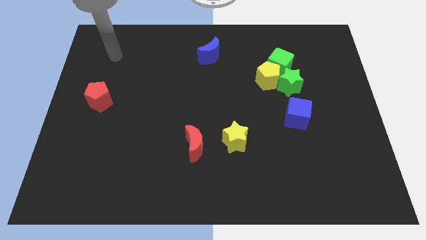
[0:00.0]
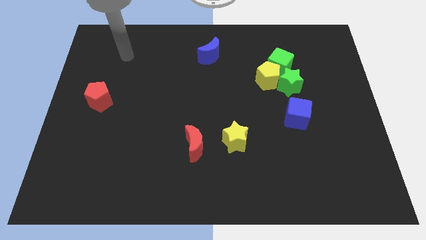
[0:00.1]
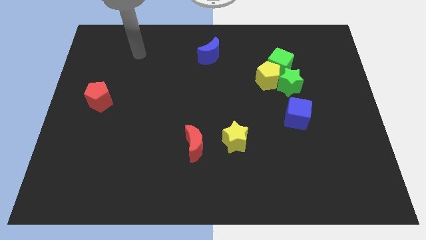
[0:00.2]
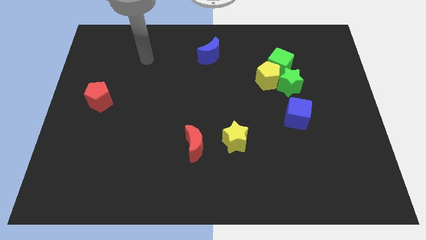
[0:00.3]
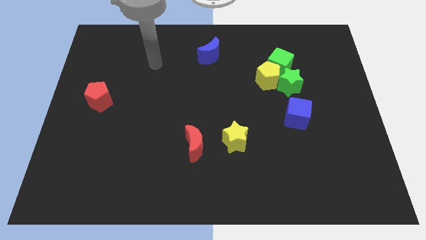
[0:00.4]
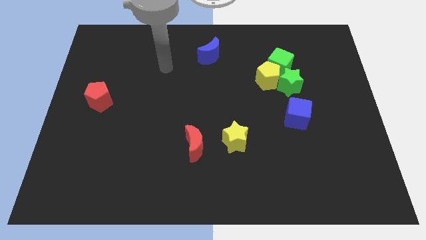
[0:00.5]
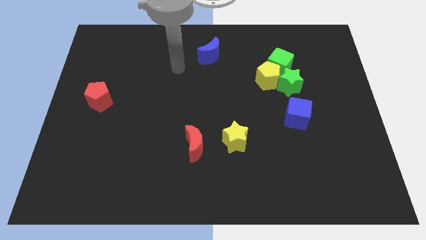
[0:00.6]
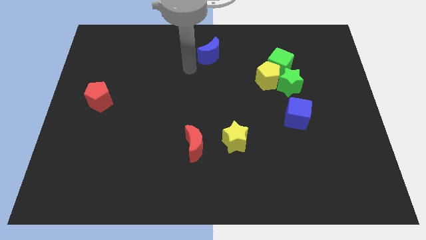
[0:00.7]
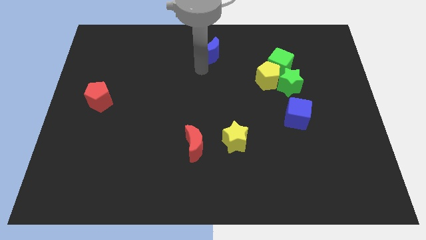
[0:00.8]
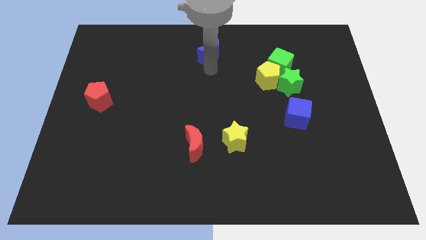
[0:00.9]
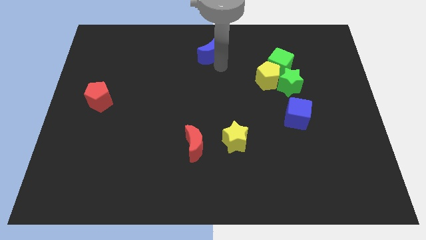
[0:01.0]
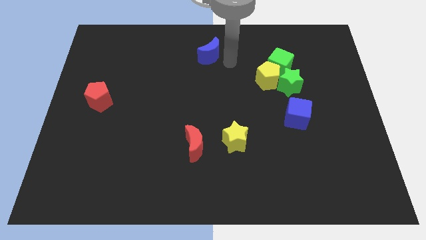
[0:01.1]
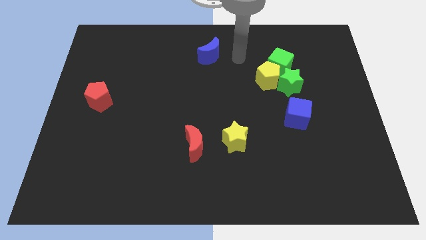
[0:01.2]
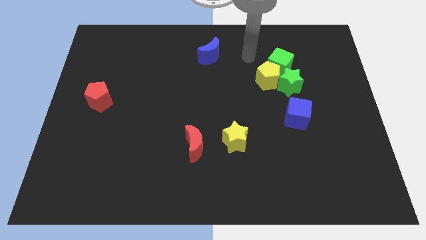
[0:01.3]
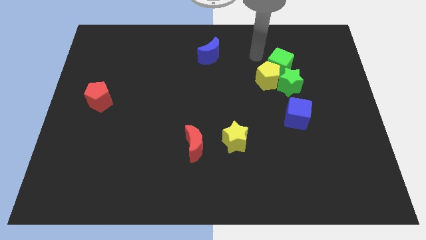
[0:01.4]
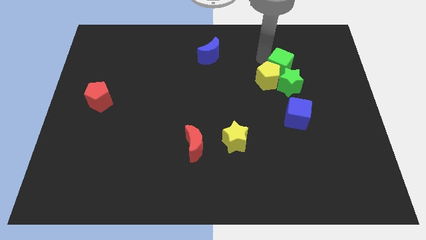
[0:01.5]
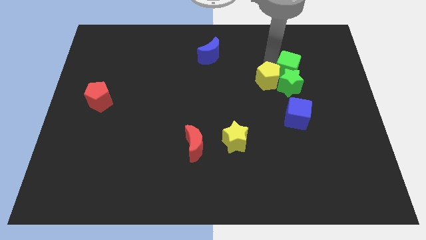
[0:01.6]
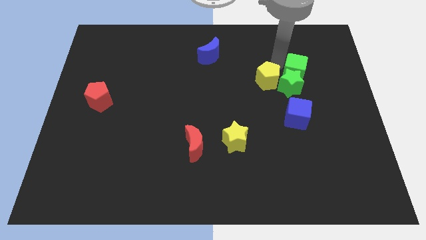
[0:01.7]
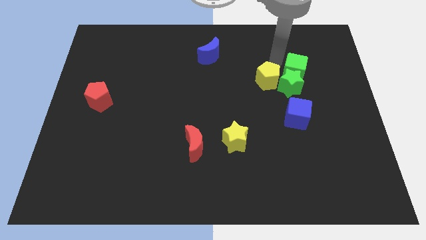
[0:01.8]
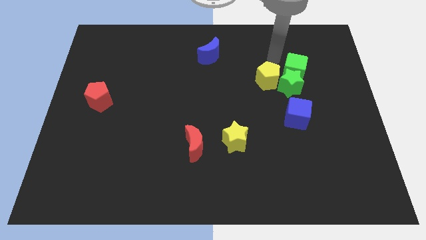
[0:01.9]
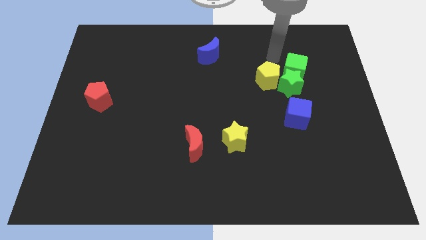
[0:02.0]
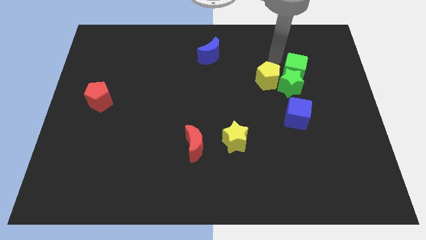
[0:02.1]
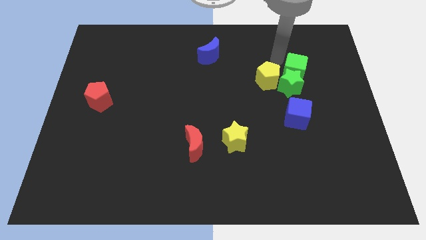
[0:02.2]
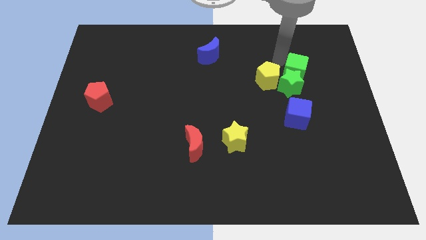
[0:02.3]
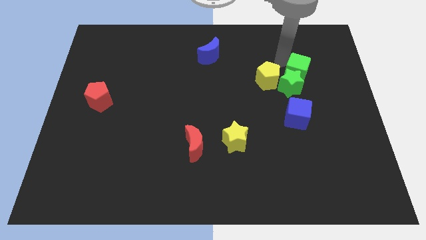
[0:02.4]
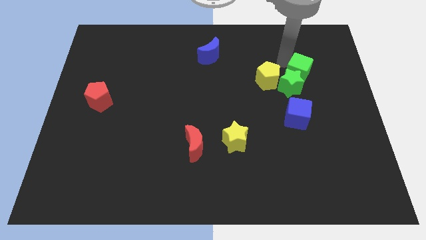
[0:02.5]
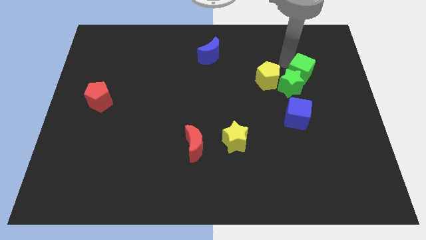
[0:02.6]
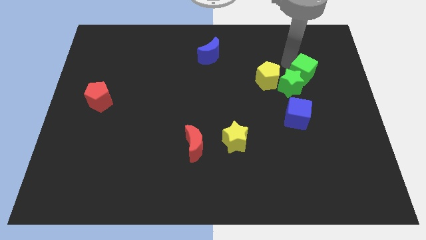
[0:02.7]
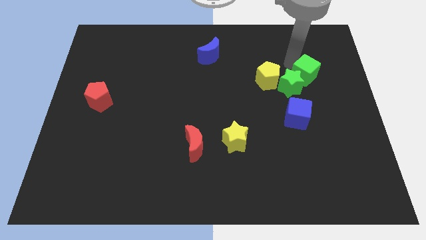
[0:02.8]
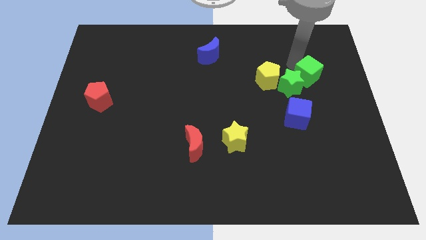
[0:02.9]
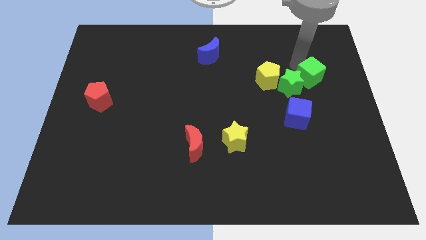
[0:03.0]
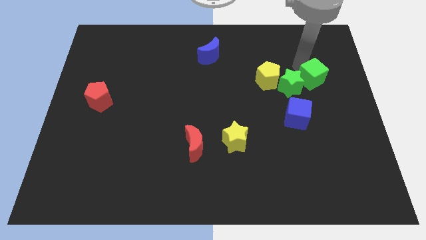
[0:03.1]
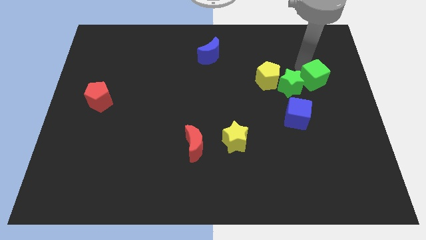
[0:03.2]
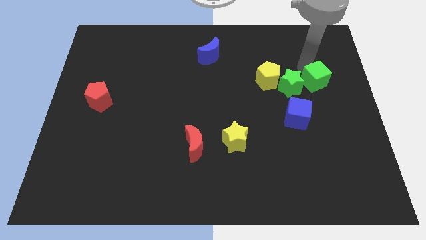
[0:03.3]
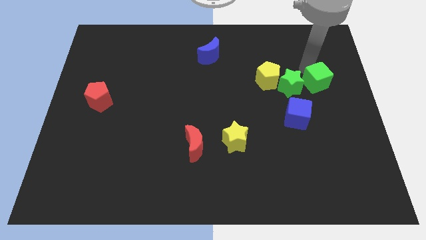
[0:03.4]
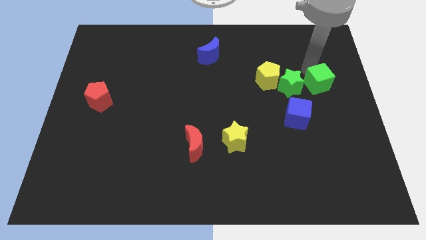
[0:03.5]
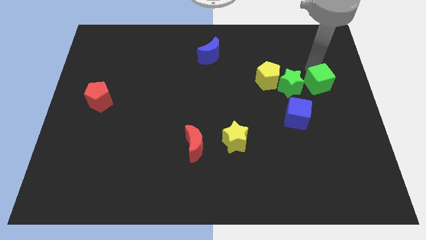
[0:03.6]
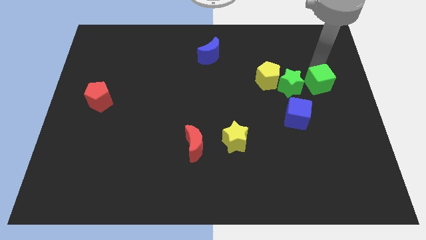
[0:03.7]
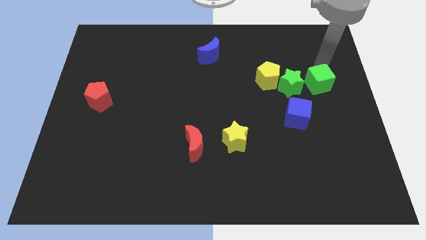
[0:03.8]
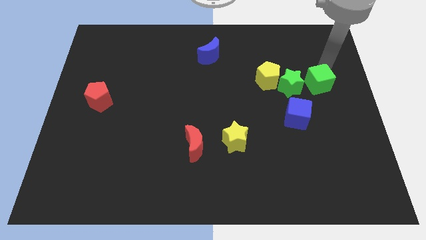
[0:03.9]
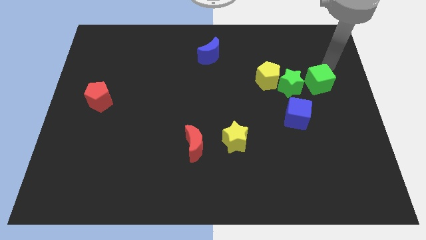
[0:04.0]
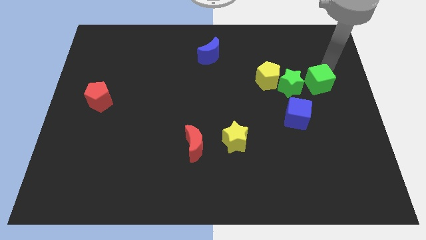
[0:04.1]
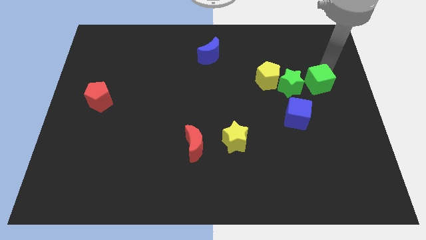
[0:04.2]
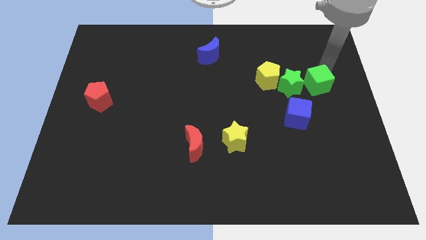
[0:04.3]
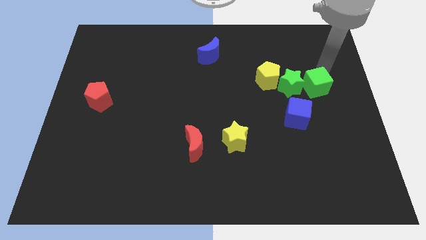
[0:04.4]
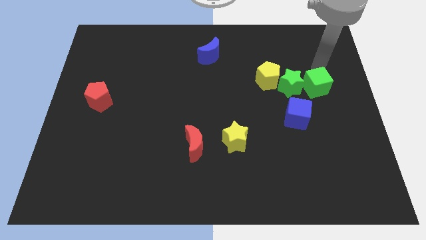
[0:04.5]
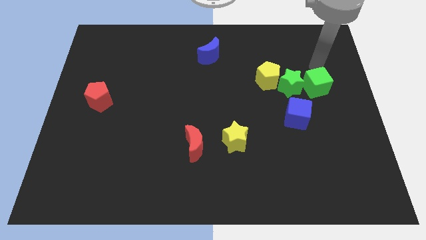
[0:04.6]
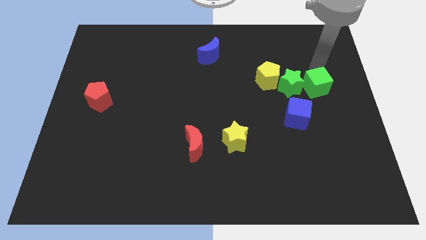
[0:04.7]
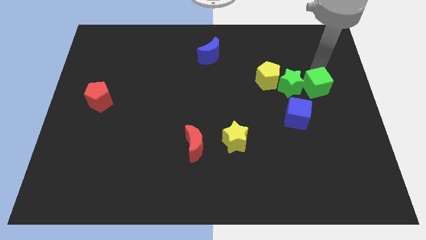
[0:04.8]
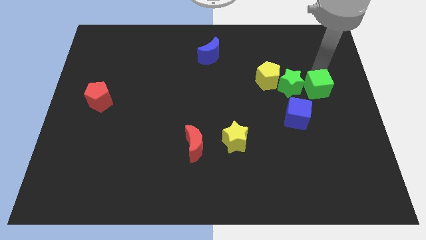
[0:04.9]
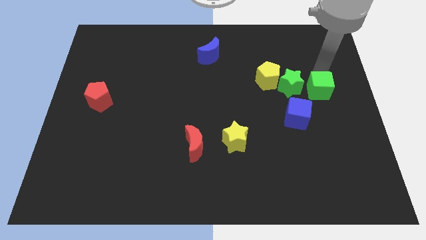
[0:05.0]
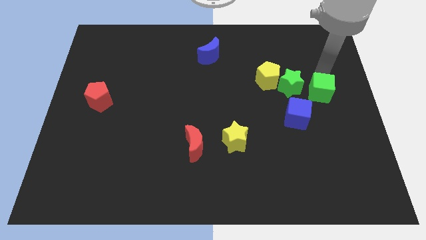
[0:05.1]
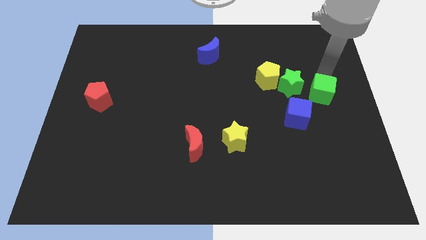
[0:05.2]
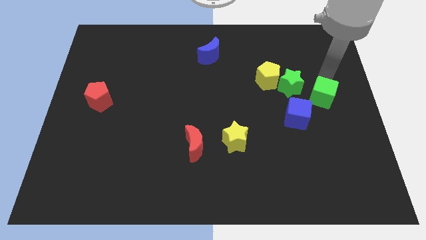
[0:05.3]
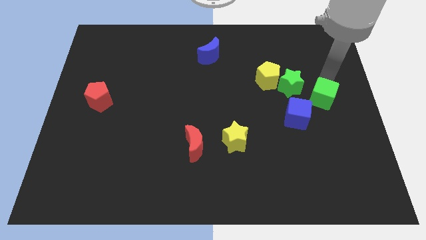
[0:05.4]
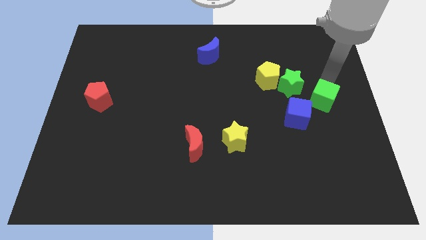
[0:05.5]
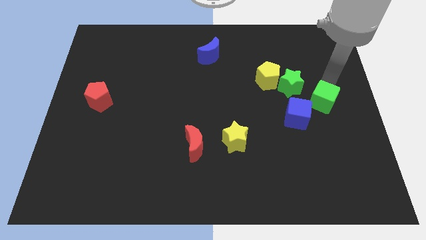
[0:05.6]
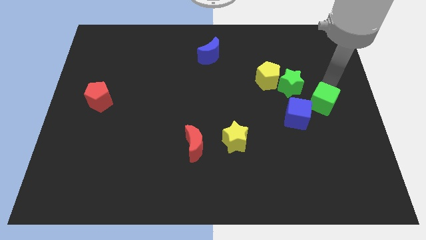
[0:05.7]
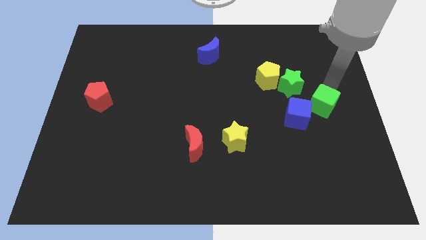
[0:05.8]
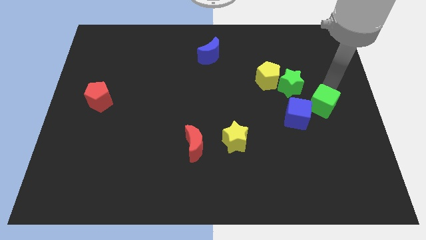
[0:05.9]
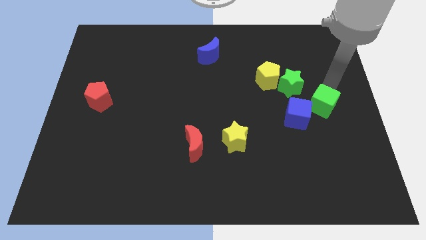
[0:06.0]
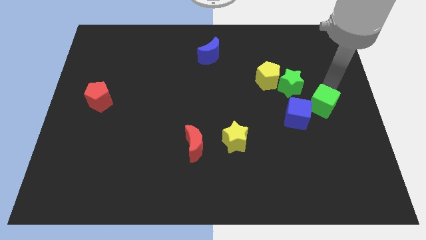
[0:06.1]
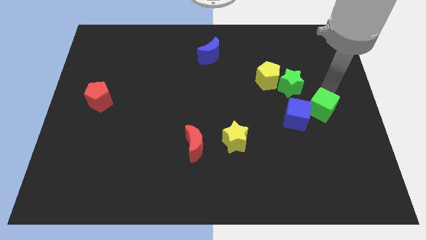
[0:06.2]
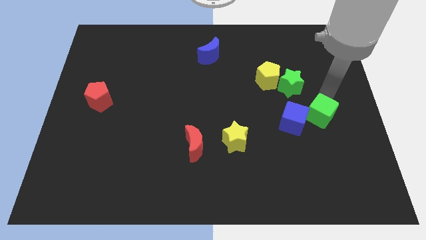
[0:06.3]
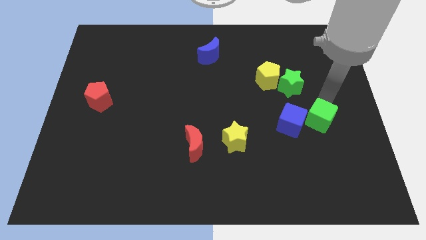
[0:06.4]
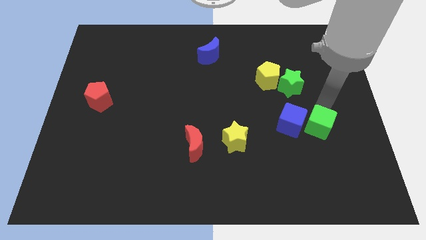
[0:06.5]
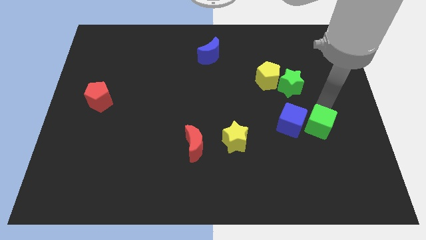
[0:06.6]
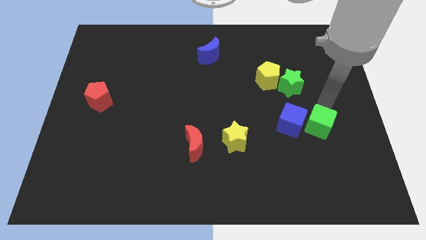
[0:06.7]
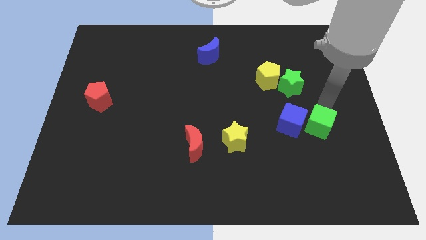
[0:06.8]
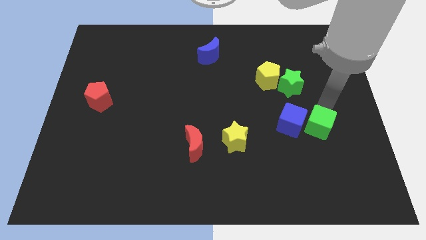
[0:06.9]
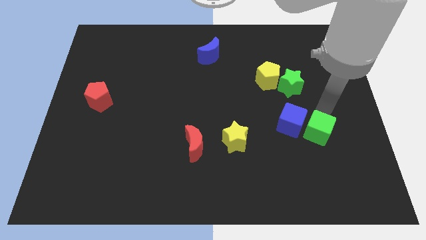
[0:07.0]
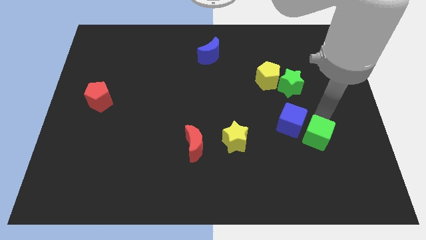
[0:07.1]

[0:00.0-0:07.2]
move the green cube down

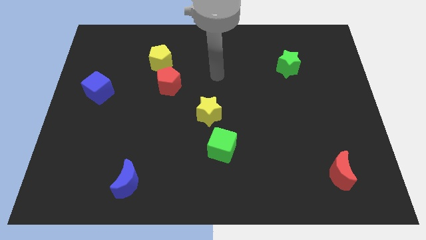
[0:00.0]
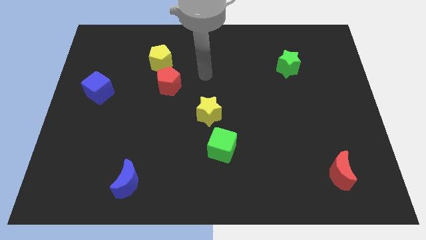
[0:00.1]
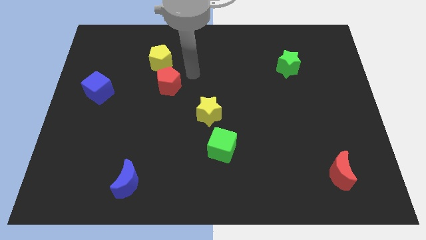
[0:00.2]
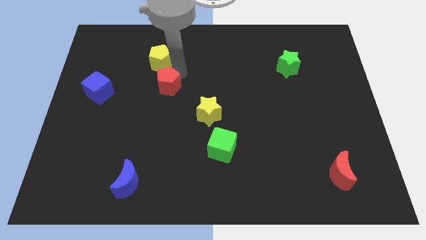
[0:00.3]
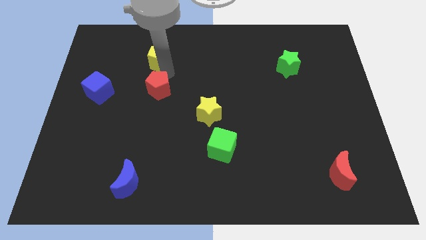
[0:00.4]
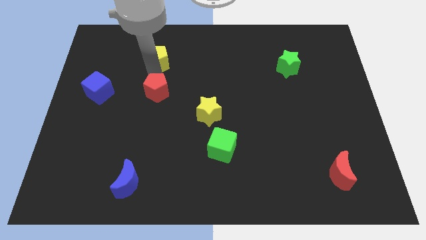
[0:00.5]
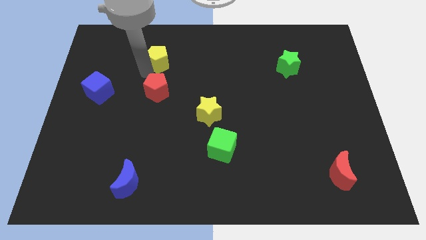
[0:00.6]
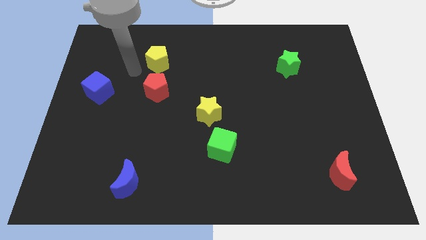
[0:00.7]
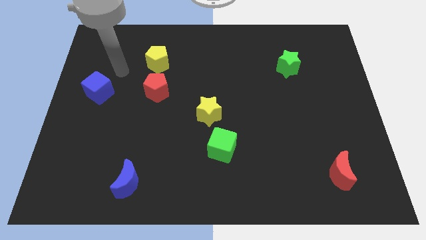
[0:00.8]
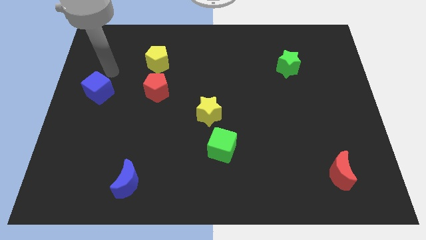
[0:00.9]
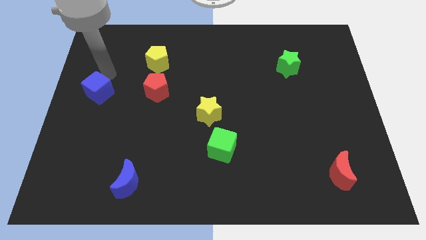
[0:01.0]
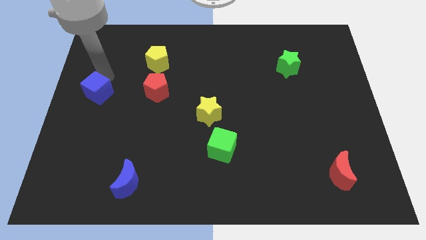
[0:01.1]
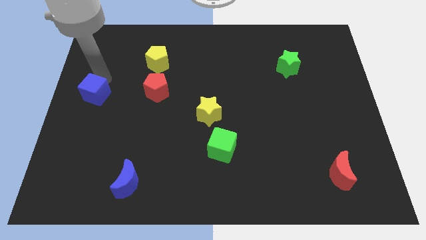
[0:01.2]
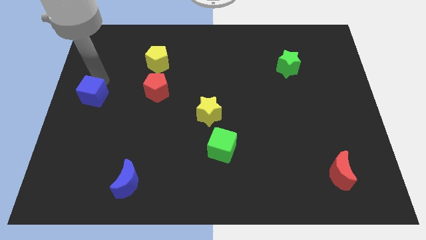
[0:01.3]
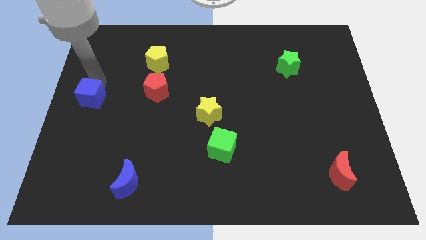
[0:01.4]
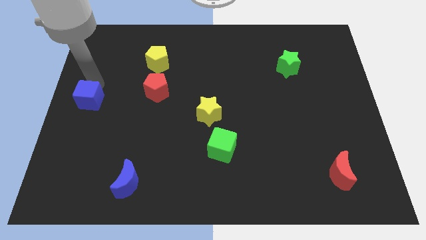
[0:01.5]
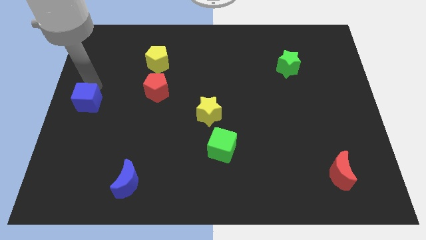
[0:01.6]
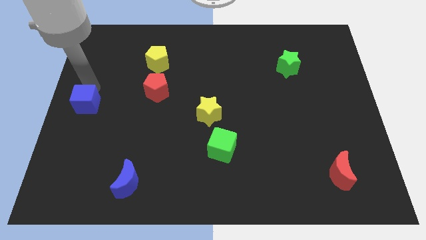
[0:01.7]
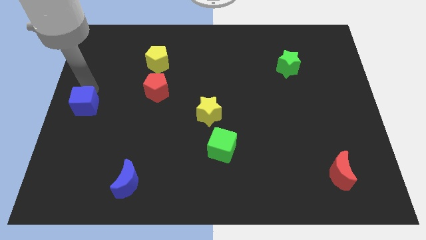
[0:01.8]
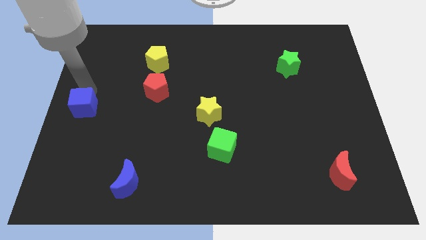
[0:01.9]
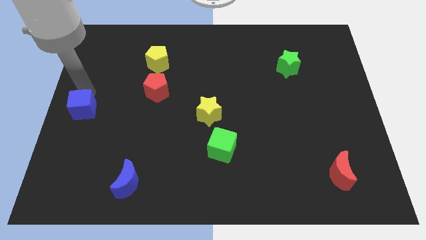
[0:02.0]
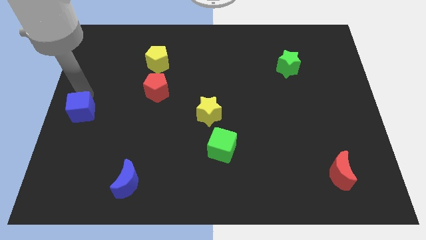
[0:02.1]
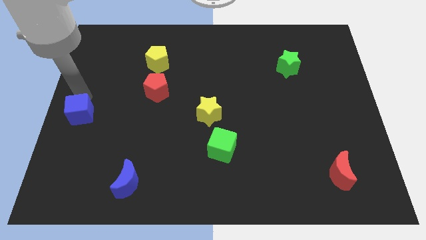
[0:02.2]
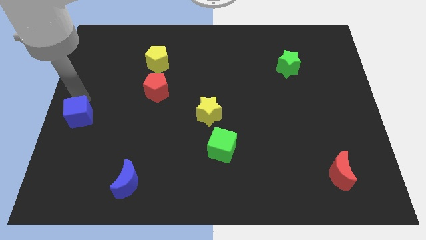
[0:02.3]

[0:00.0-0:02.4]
push the blue cube down a bit
